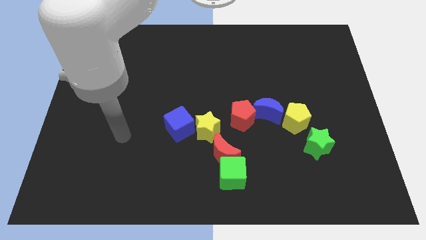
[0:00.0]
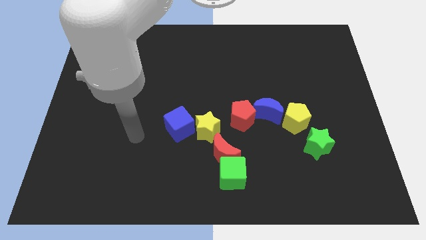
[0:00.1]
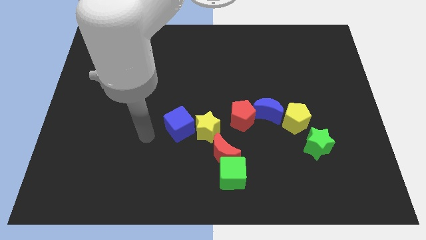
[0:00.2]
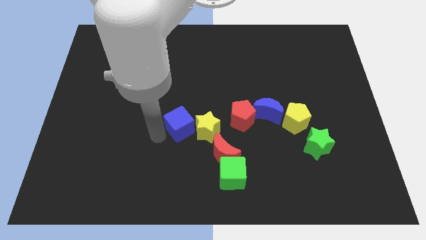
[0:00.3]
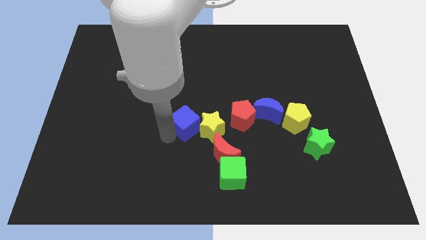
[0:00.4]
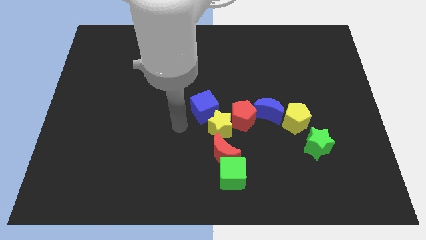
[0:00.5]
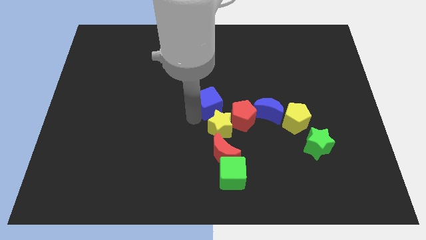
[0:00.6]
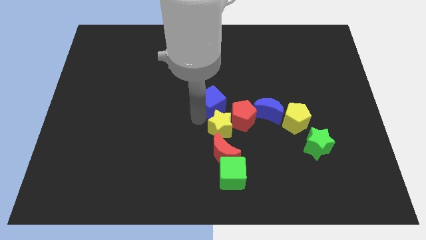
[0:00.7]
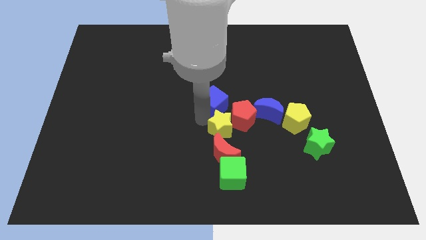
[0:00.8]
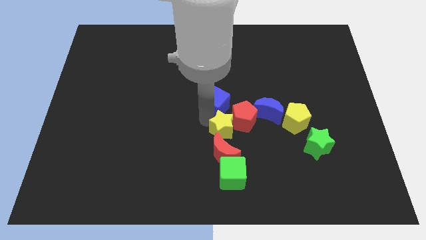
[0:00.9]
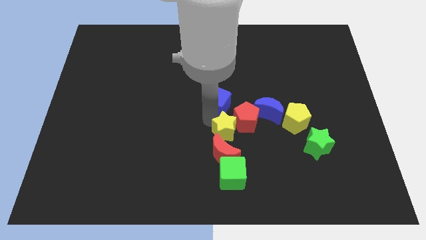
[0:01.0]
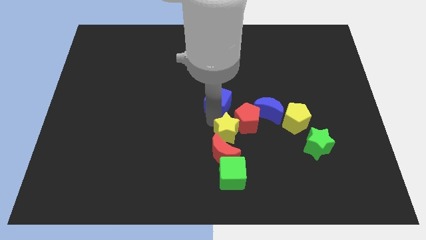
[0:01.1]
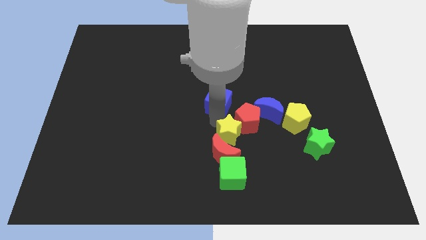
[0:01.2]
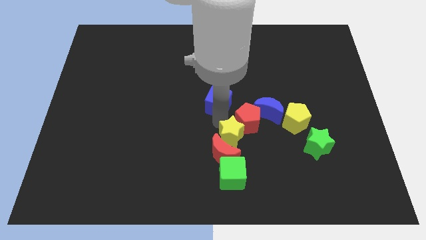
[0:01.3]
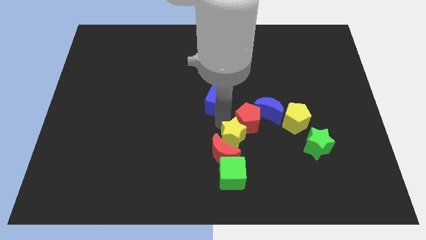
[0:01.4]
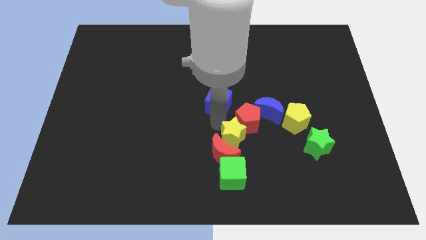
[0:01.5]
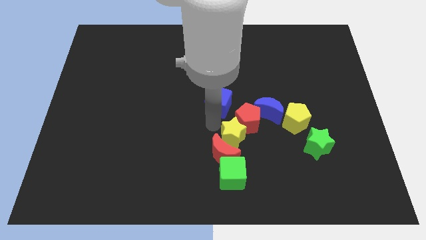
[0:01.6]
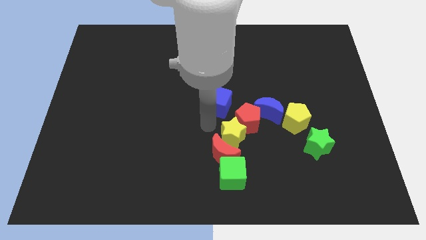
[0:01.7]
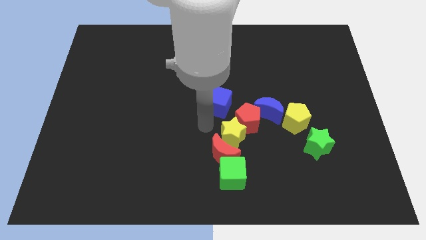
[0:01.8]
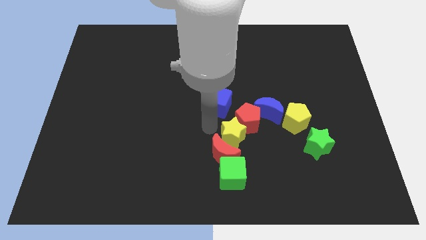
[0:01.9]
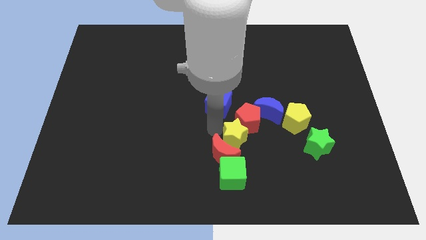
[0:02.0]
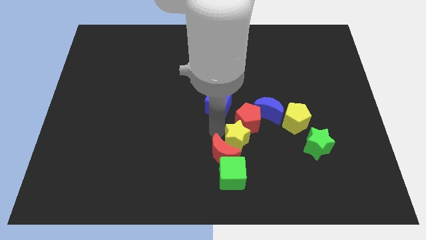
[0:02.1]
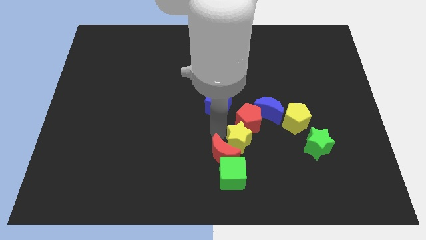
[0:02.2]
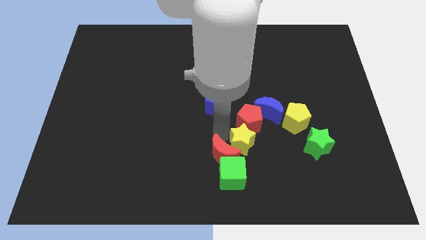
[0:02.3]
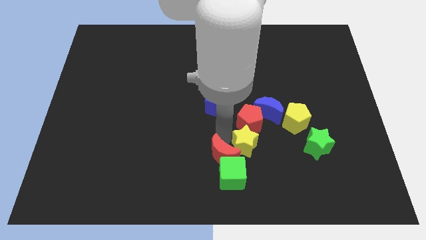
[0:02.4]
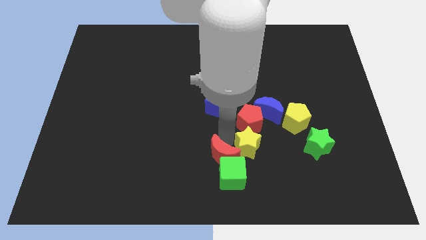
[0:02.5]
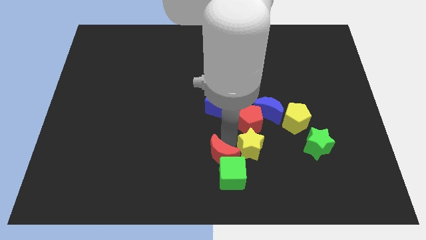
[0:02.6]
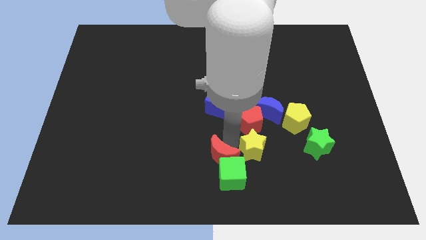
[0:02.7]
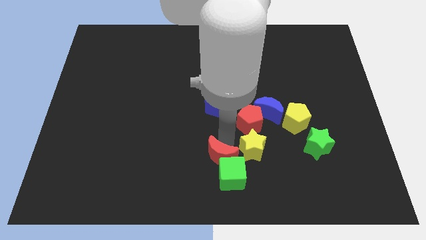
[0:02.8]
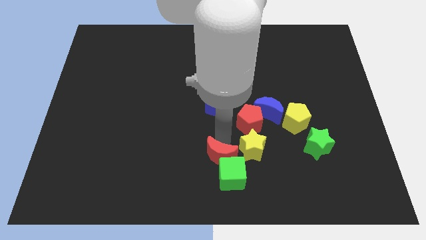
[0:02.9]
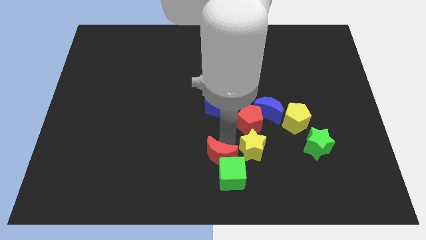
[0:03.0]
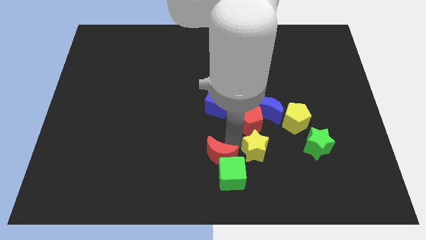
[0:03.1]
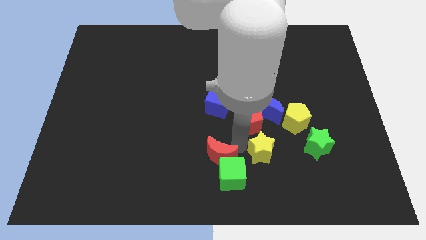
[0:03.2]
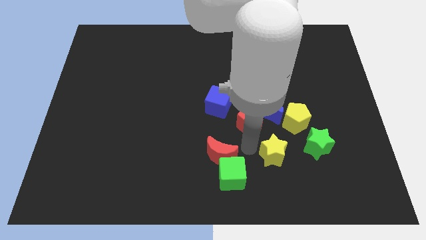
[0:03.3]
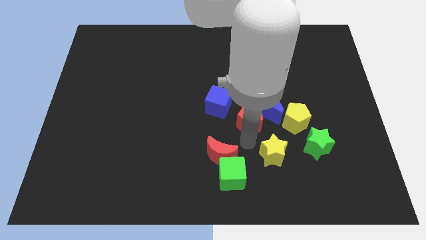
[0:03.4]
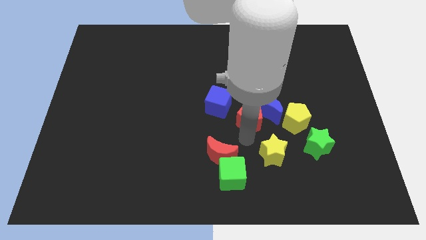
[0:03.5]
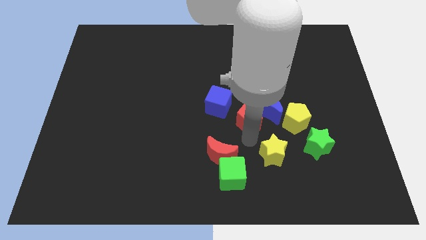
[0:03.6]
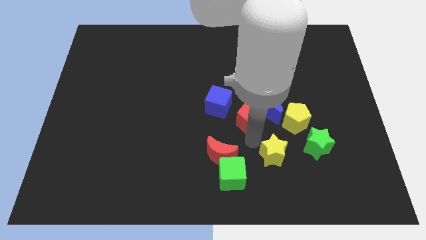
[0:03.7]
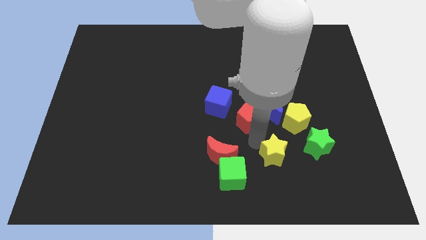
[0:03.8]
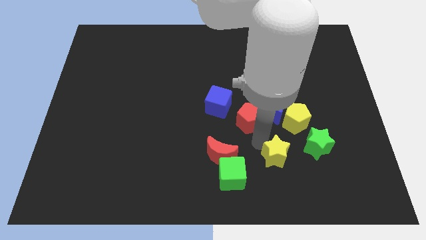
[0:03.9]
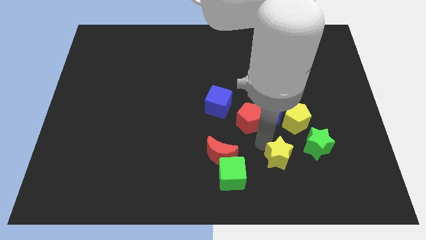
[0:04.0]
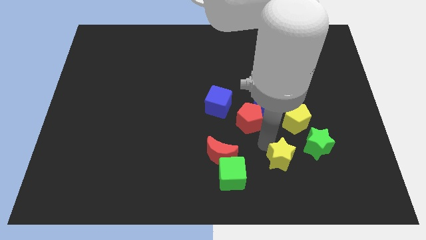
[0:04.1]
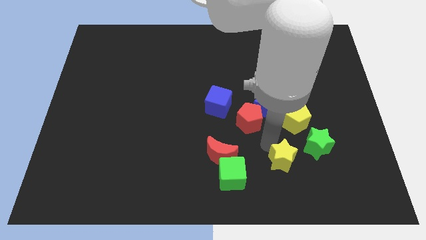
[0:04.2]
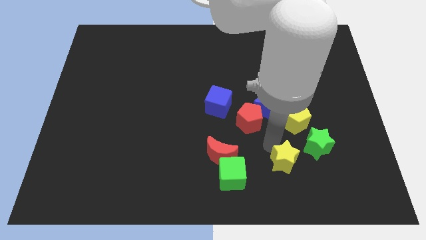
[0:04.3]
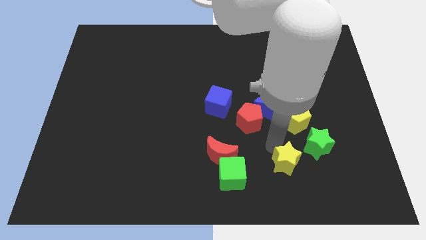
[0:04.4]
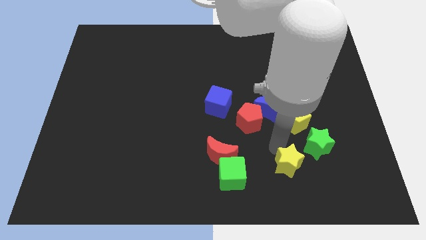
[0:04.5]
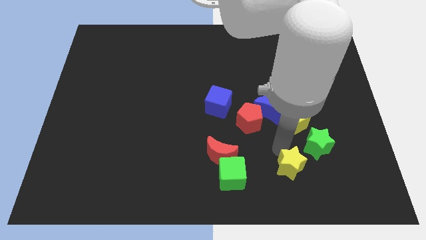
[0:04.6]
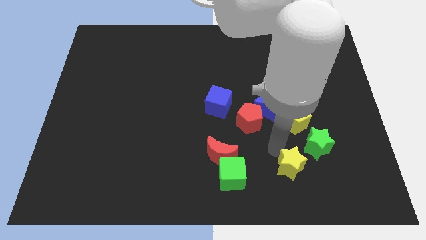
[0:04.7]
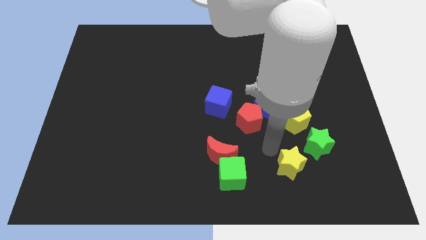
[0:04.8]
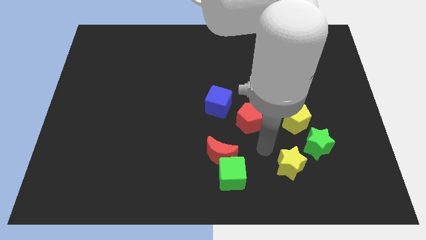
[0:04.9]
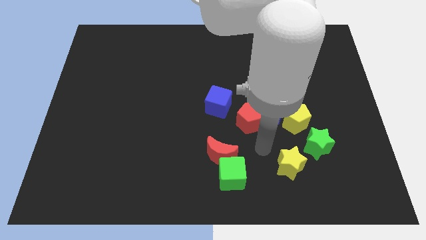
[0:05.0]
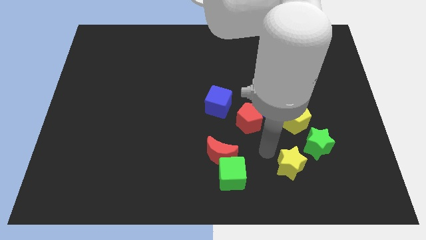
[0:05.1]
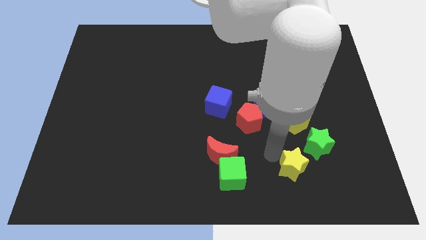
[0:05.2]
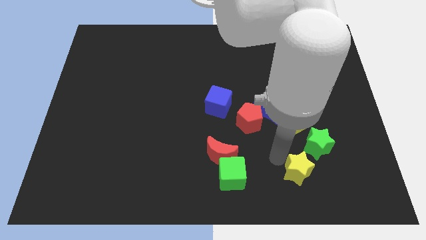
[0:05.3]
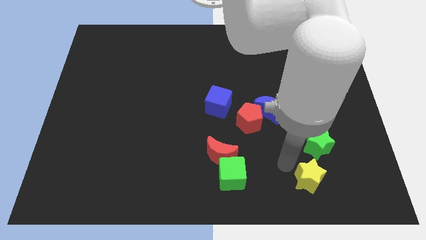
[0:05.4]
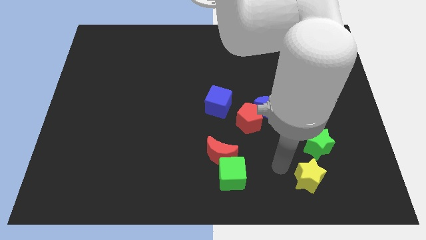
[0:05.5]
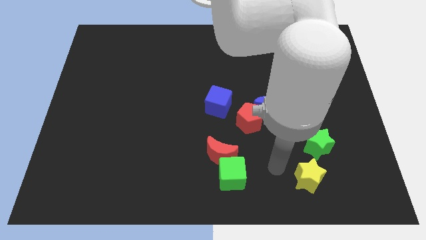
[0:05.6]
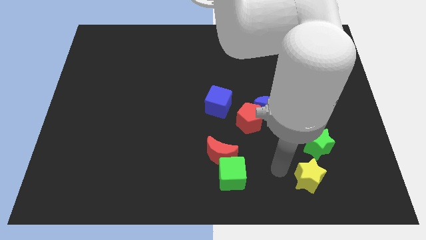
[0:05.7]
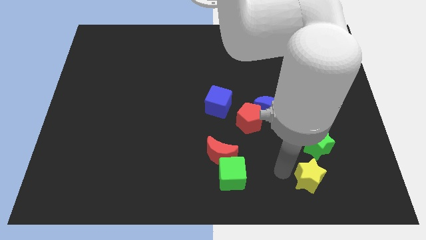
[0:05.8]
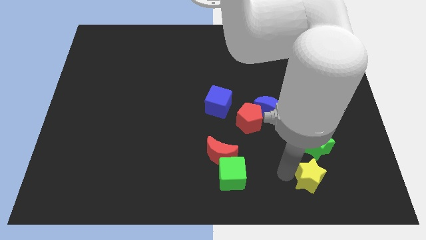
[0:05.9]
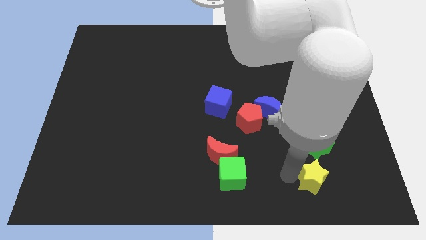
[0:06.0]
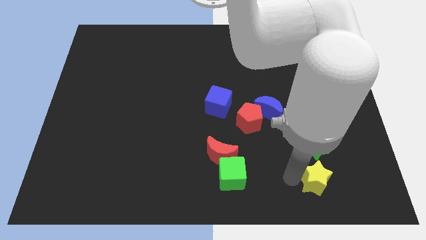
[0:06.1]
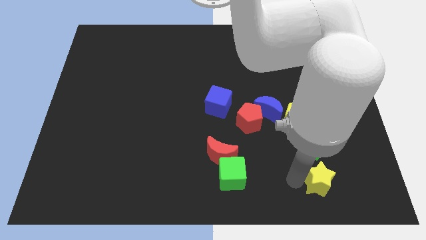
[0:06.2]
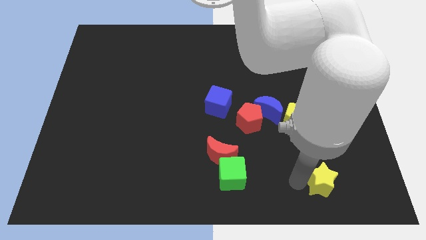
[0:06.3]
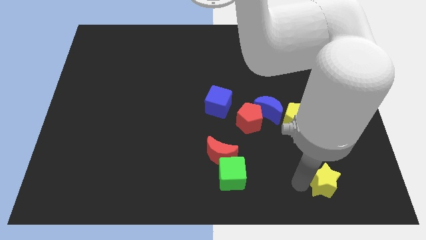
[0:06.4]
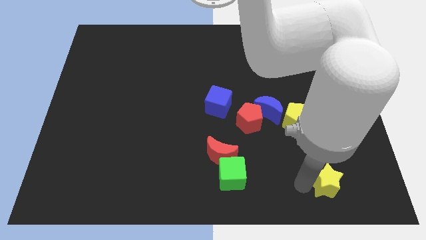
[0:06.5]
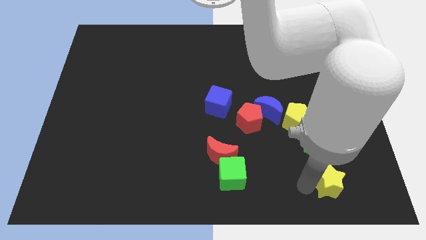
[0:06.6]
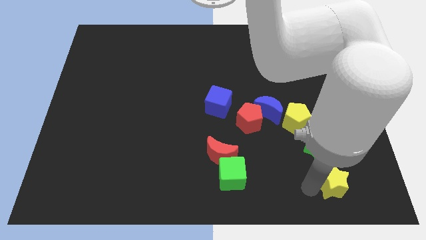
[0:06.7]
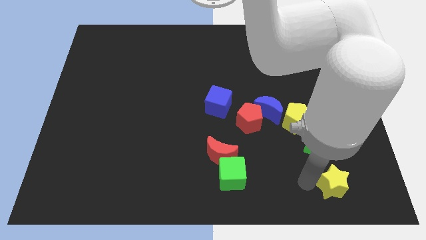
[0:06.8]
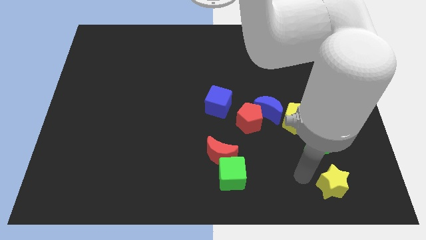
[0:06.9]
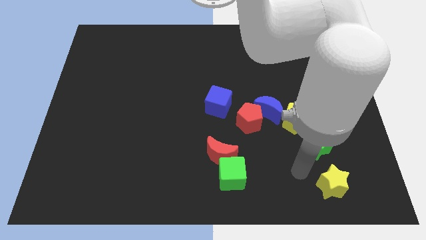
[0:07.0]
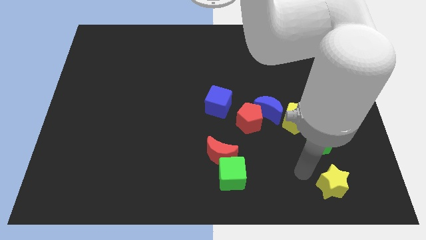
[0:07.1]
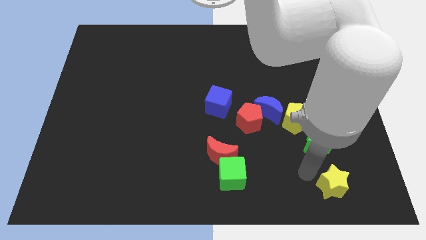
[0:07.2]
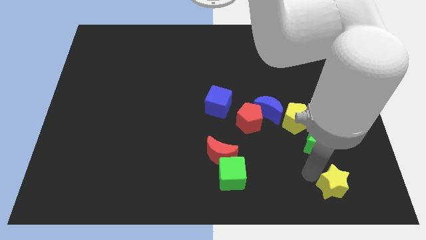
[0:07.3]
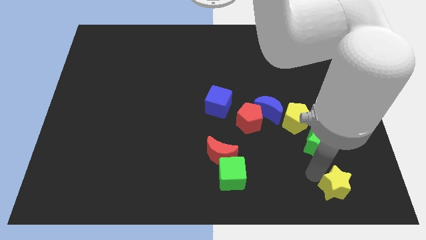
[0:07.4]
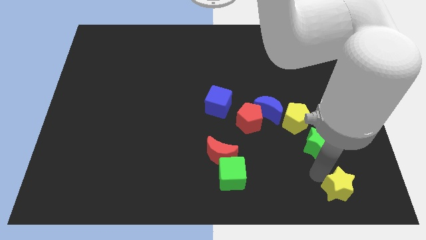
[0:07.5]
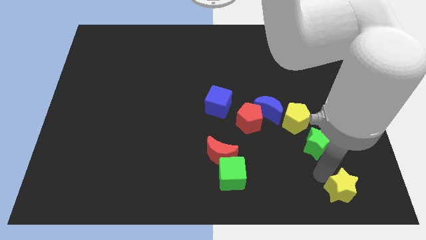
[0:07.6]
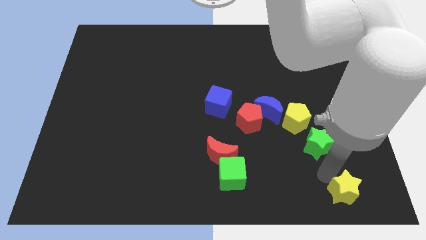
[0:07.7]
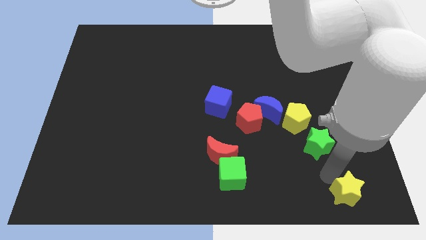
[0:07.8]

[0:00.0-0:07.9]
push the yellow star to the bottom right corner
